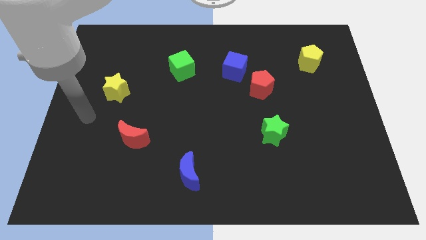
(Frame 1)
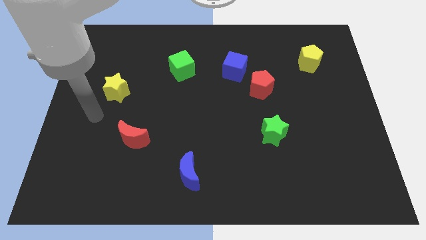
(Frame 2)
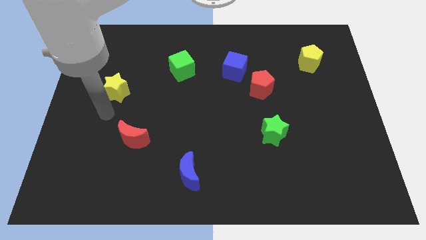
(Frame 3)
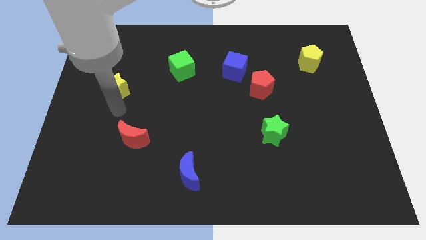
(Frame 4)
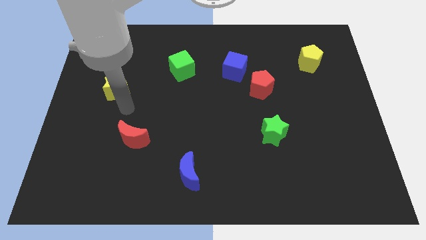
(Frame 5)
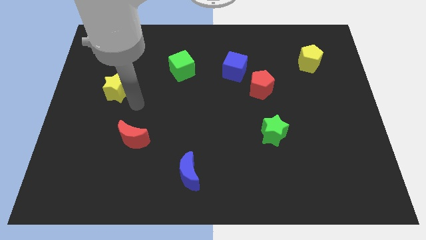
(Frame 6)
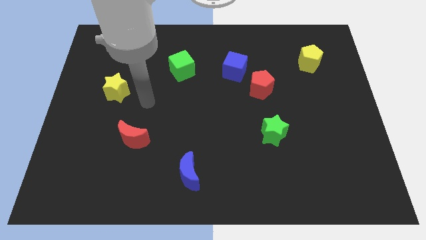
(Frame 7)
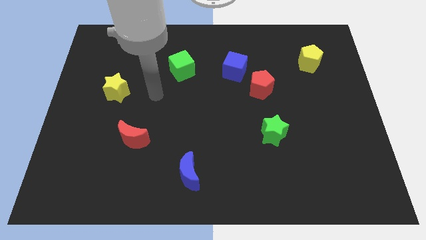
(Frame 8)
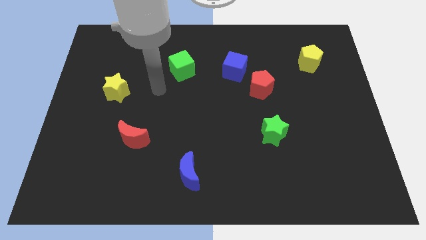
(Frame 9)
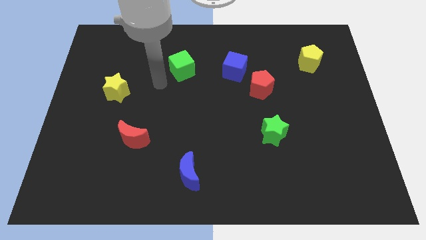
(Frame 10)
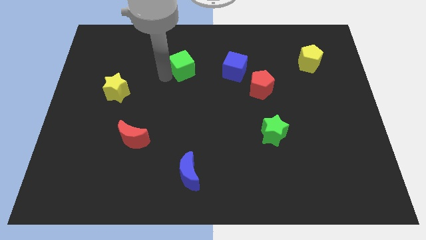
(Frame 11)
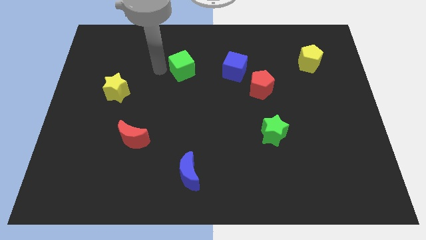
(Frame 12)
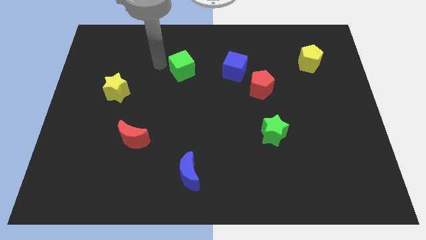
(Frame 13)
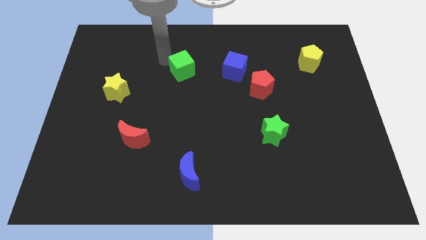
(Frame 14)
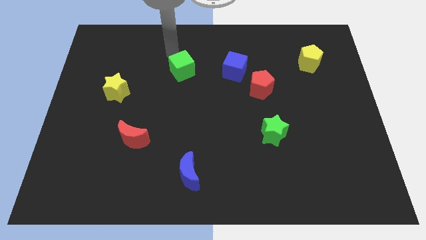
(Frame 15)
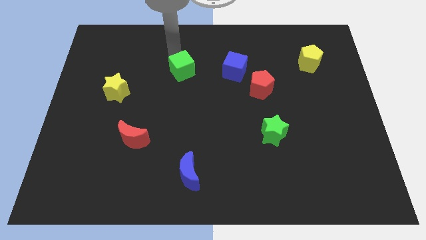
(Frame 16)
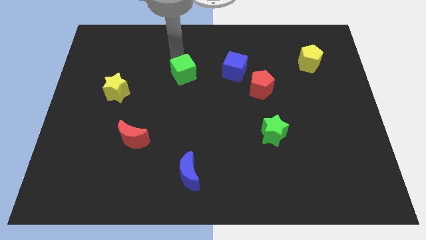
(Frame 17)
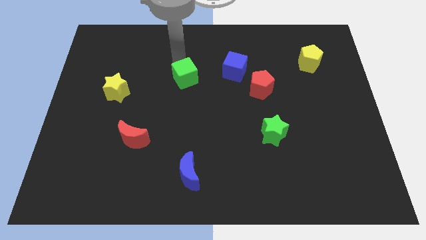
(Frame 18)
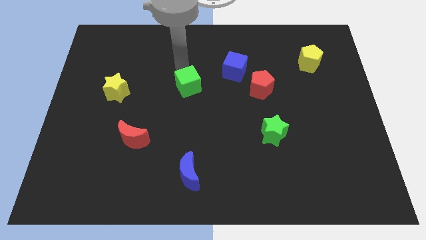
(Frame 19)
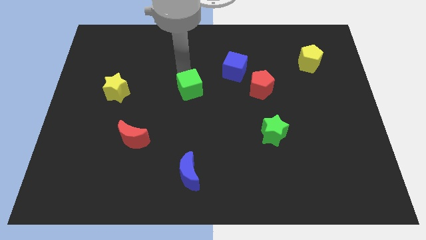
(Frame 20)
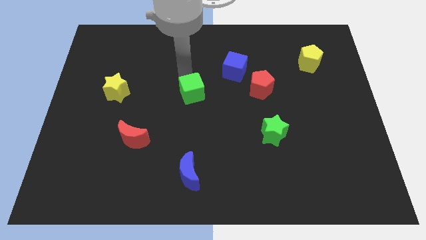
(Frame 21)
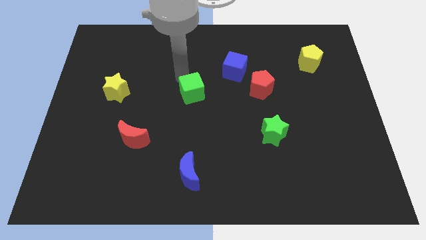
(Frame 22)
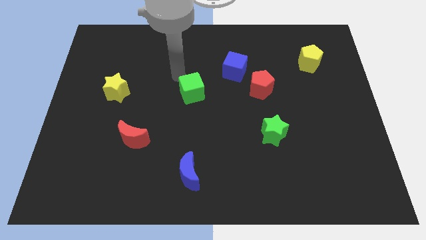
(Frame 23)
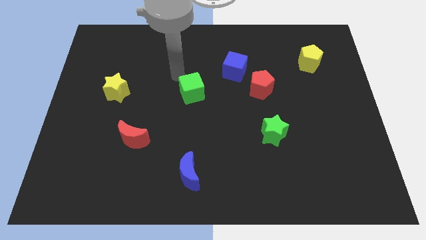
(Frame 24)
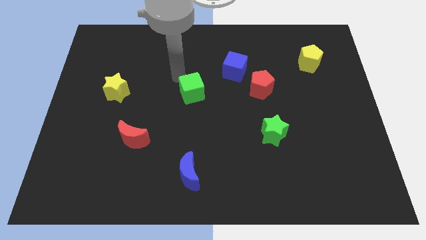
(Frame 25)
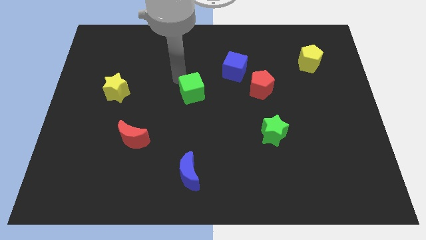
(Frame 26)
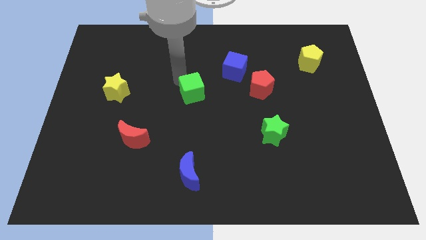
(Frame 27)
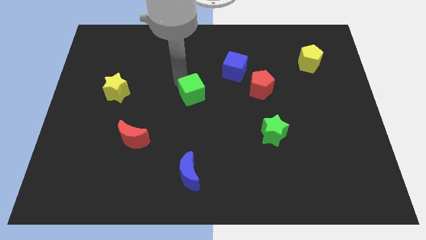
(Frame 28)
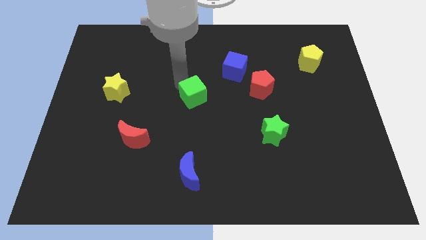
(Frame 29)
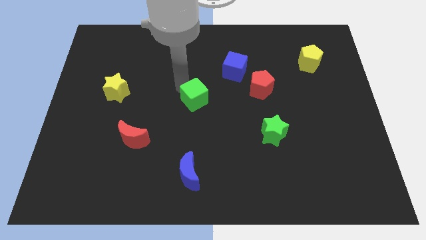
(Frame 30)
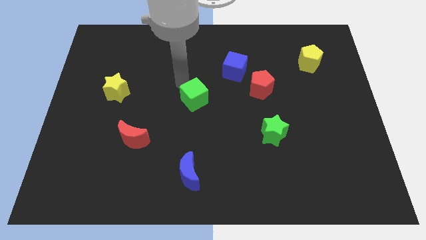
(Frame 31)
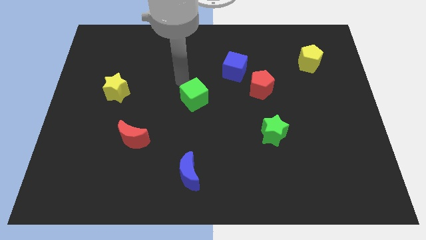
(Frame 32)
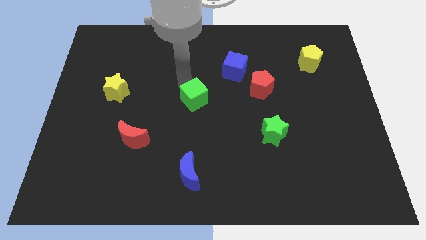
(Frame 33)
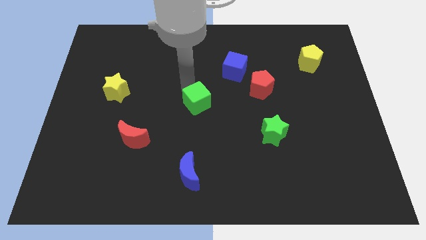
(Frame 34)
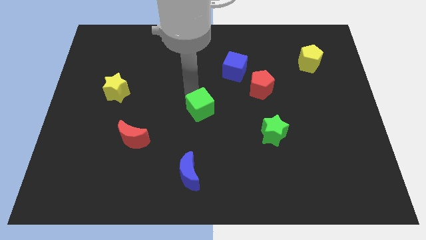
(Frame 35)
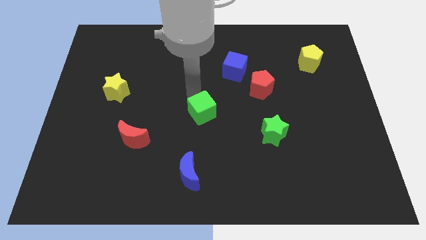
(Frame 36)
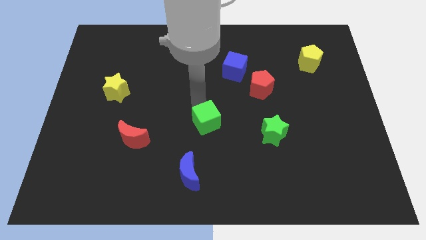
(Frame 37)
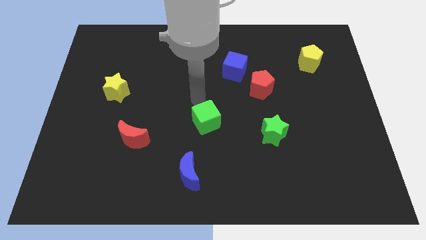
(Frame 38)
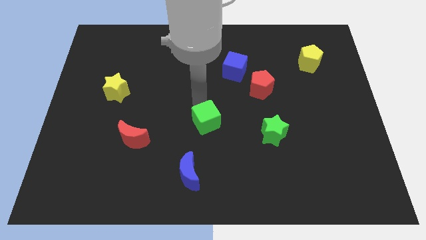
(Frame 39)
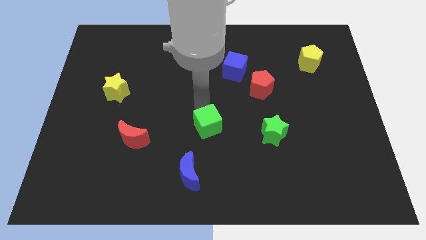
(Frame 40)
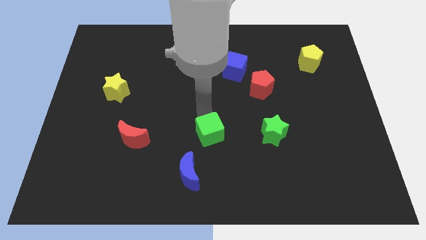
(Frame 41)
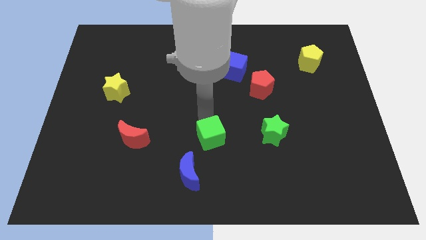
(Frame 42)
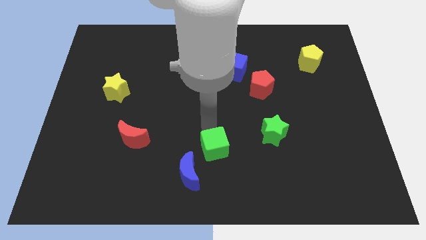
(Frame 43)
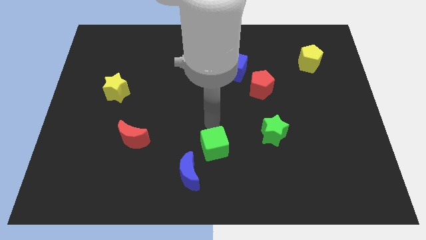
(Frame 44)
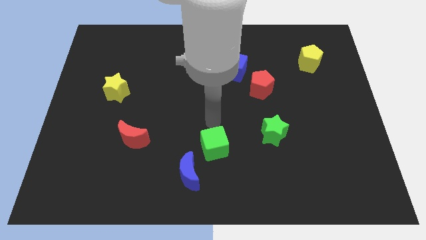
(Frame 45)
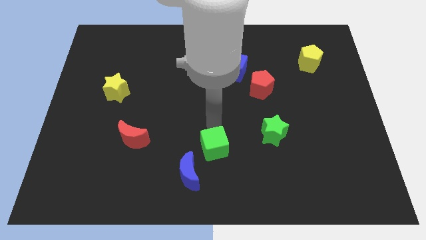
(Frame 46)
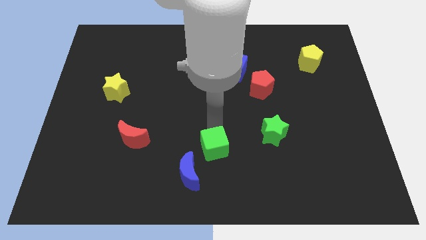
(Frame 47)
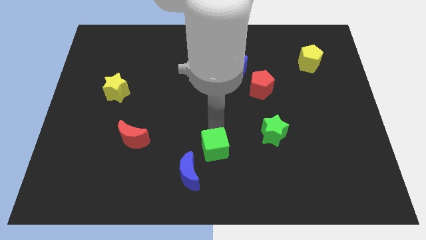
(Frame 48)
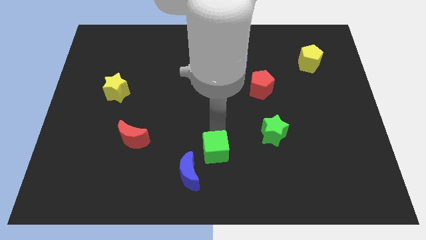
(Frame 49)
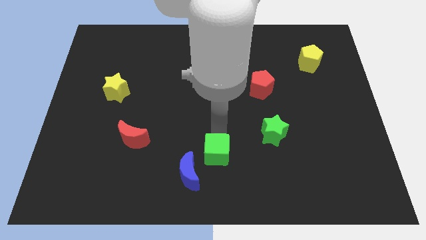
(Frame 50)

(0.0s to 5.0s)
slide the green cube to the bottom side

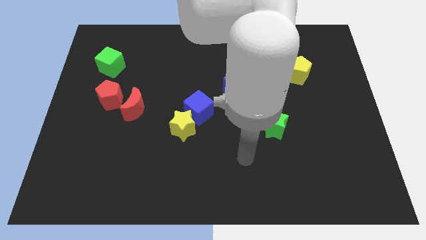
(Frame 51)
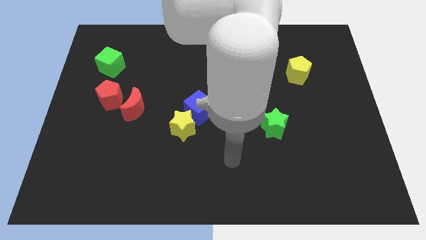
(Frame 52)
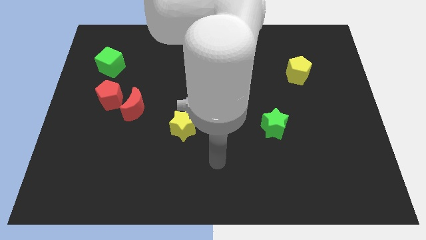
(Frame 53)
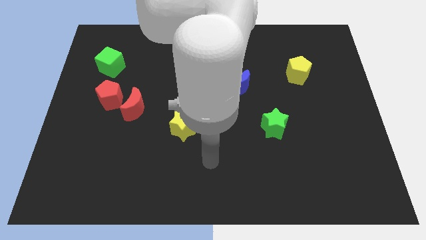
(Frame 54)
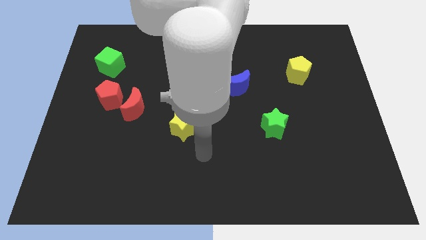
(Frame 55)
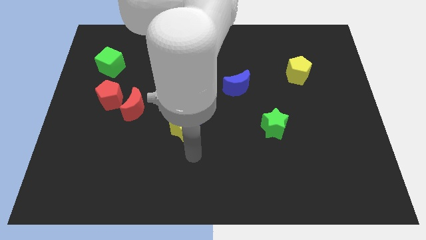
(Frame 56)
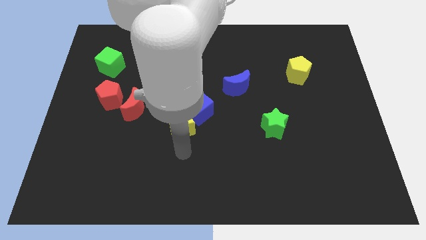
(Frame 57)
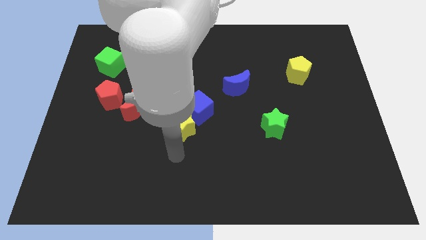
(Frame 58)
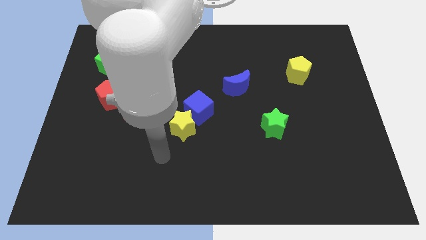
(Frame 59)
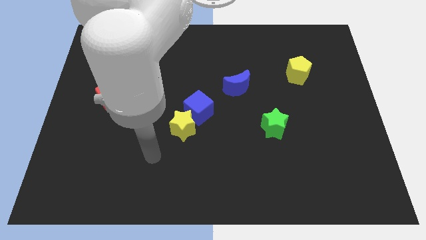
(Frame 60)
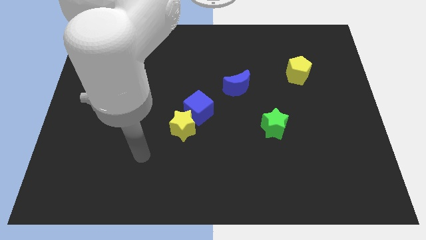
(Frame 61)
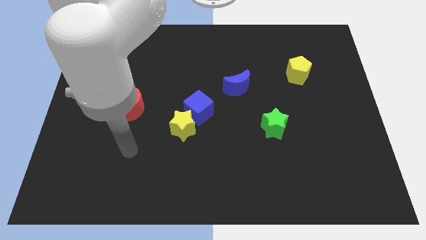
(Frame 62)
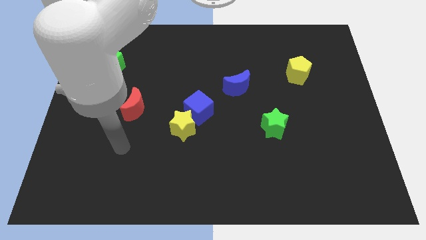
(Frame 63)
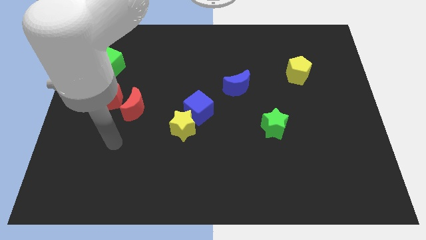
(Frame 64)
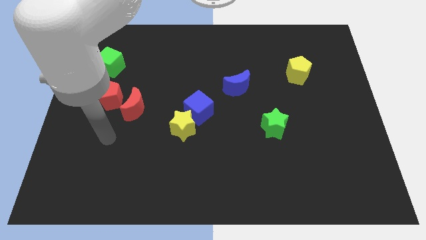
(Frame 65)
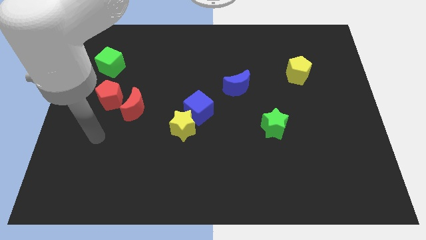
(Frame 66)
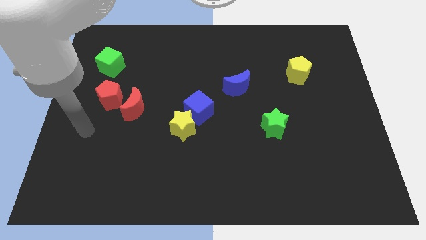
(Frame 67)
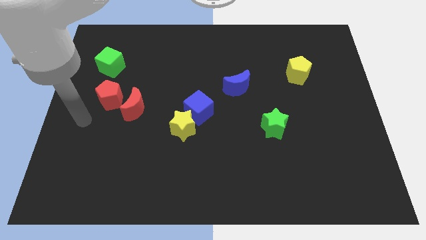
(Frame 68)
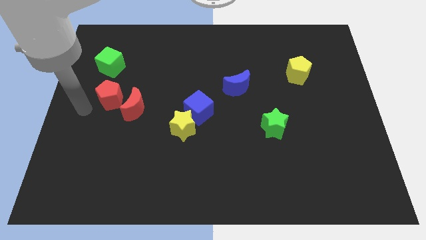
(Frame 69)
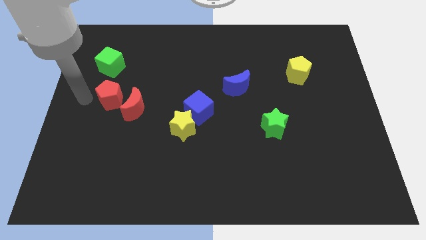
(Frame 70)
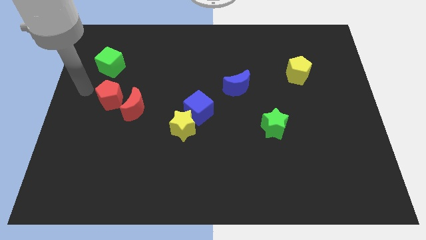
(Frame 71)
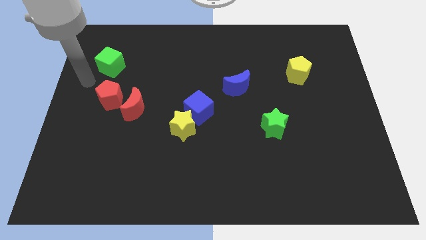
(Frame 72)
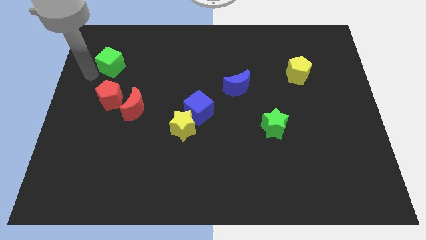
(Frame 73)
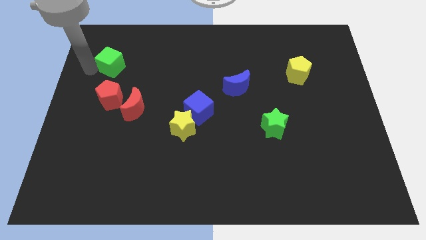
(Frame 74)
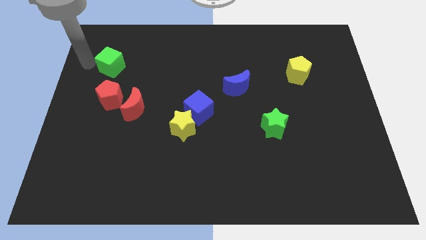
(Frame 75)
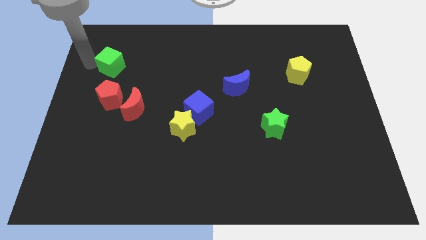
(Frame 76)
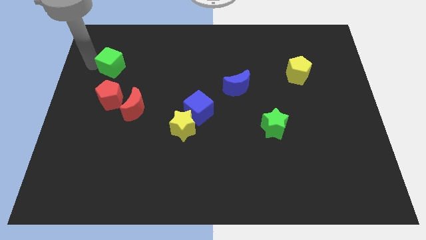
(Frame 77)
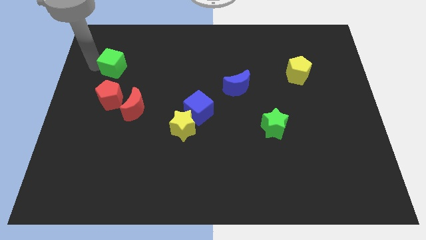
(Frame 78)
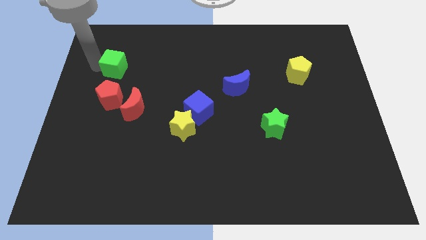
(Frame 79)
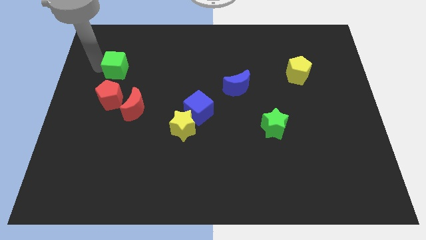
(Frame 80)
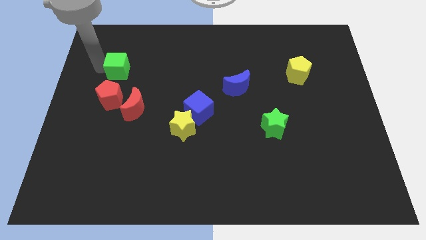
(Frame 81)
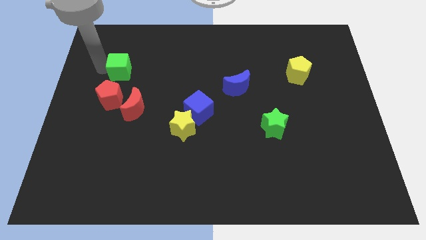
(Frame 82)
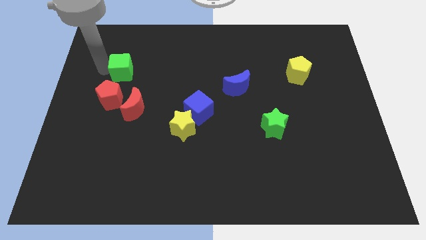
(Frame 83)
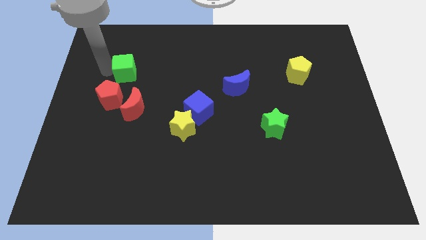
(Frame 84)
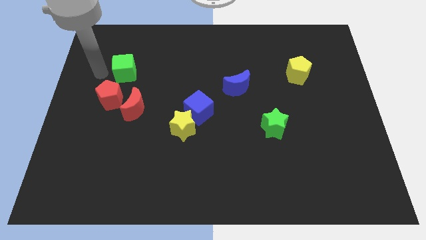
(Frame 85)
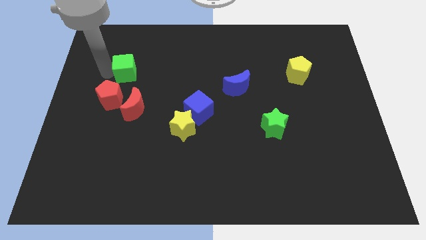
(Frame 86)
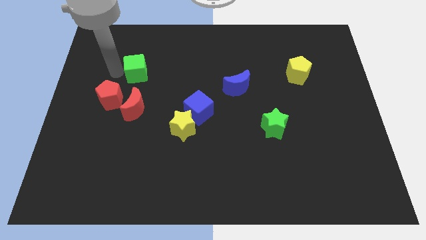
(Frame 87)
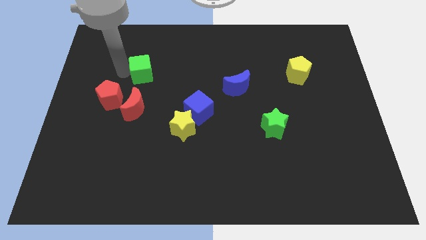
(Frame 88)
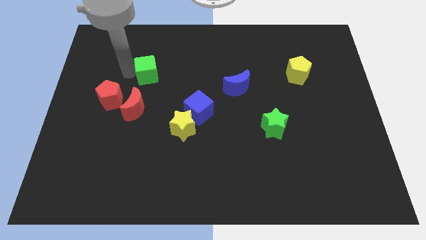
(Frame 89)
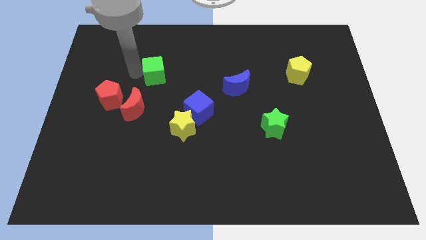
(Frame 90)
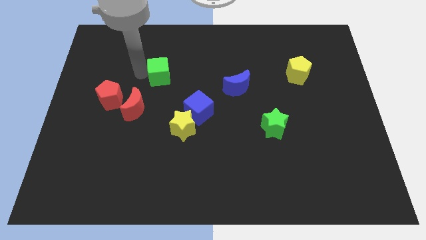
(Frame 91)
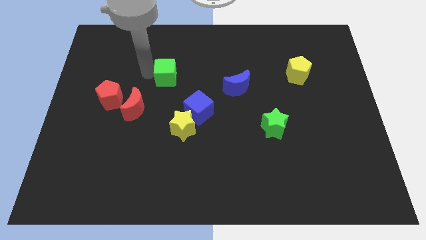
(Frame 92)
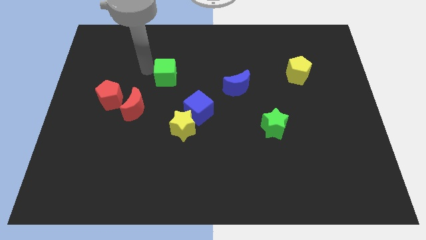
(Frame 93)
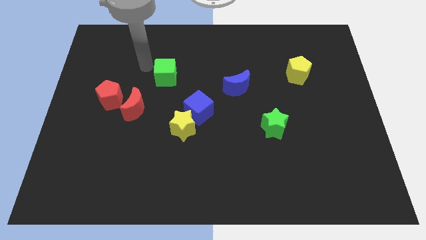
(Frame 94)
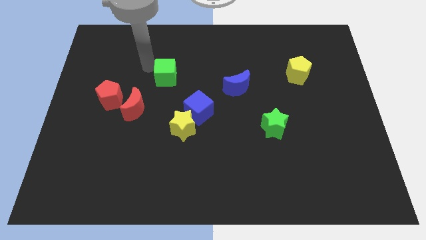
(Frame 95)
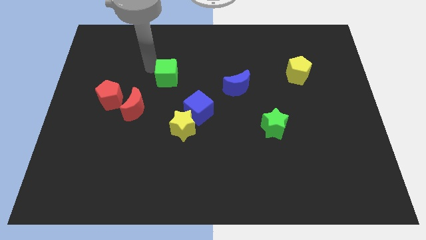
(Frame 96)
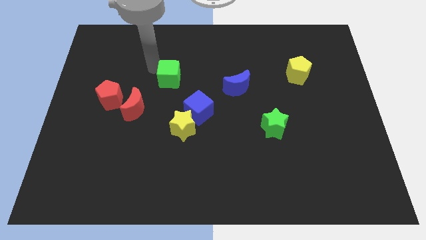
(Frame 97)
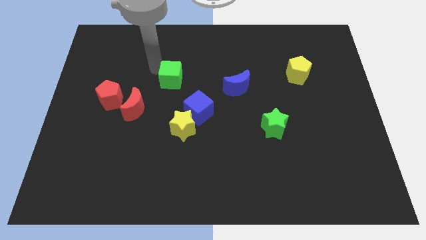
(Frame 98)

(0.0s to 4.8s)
push the green cube to the middle of the board
